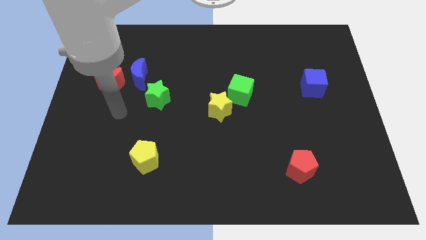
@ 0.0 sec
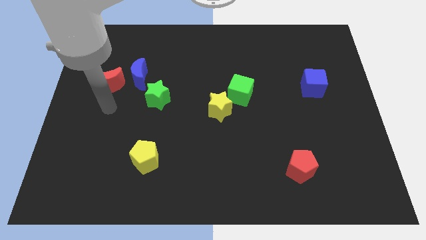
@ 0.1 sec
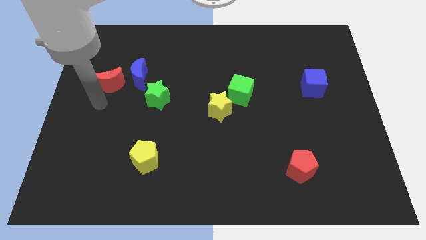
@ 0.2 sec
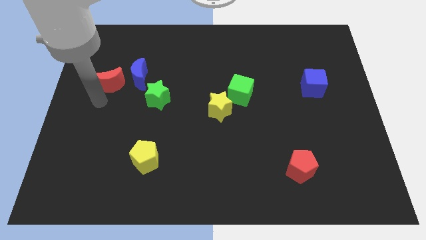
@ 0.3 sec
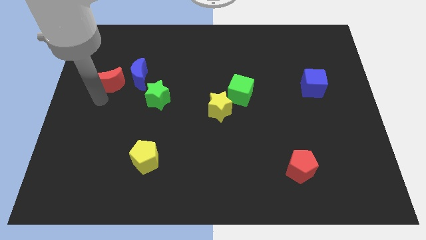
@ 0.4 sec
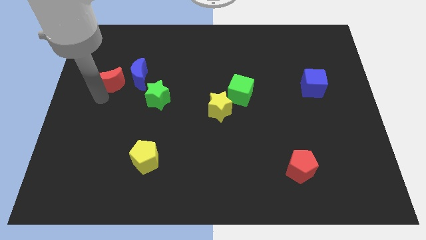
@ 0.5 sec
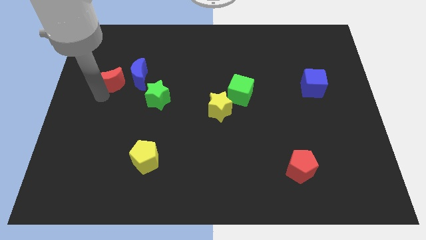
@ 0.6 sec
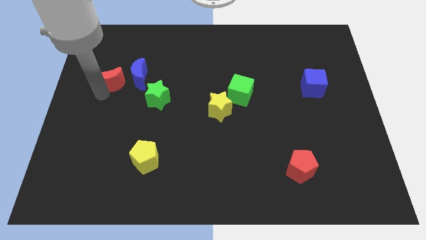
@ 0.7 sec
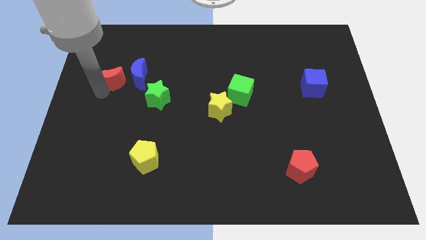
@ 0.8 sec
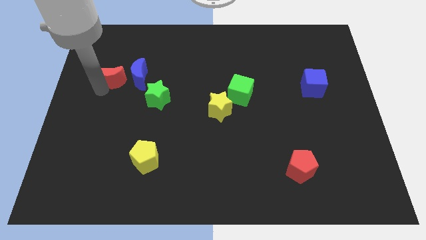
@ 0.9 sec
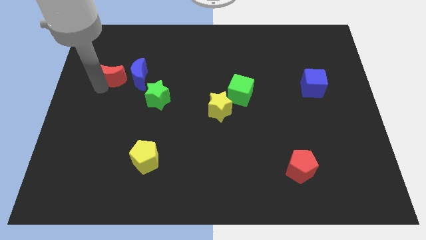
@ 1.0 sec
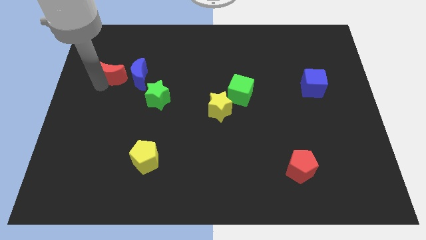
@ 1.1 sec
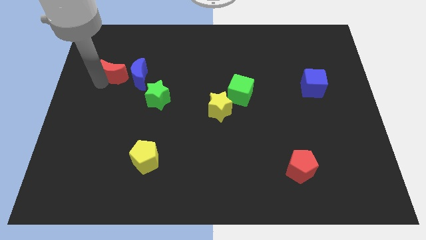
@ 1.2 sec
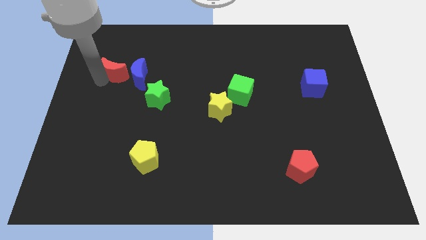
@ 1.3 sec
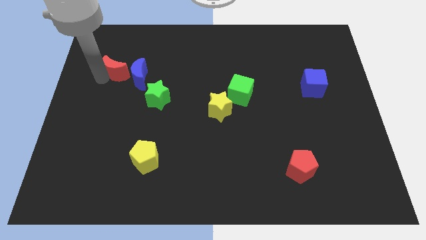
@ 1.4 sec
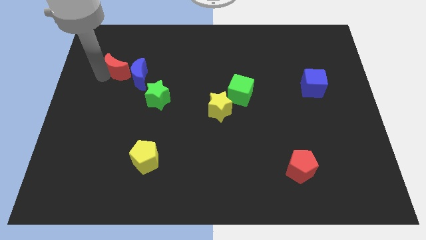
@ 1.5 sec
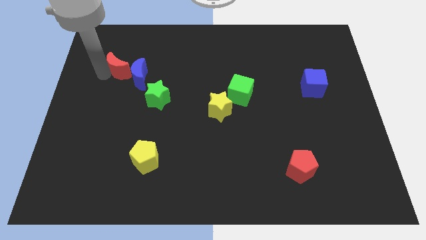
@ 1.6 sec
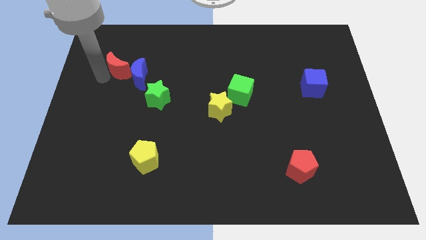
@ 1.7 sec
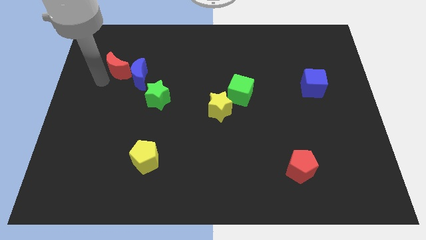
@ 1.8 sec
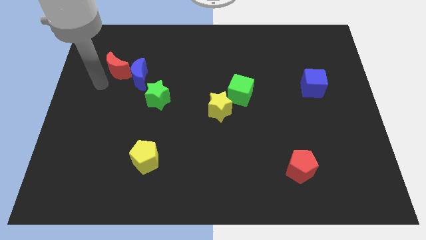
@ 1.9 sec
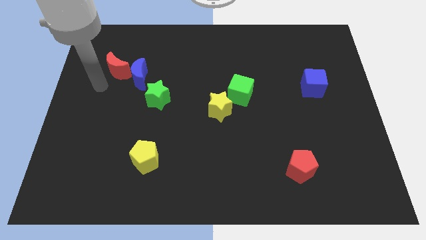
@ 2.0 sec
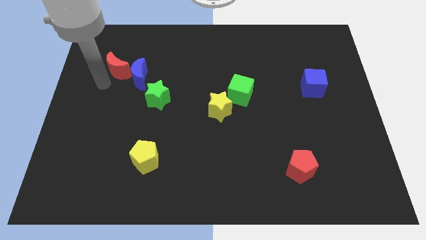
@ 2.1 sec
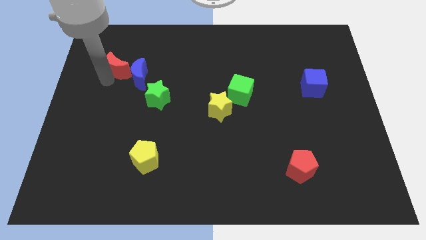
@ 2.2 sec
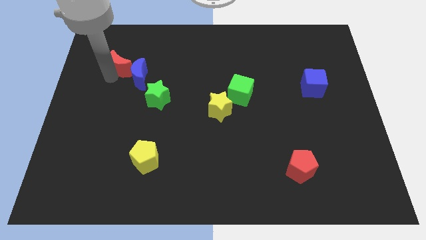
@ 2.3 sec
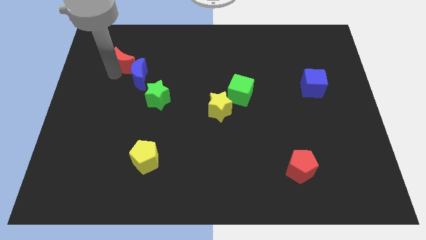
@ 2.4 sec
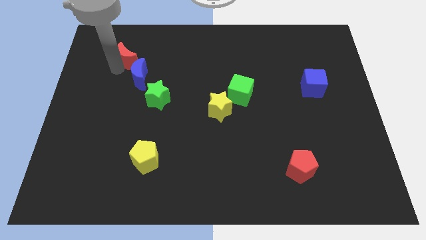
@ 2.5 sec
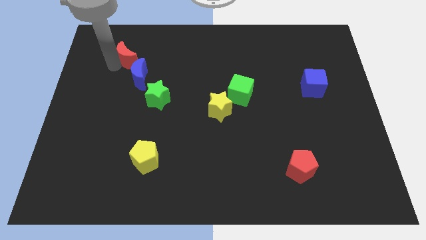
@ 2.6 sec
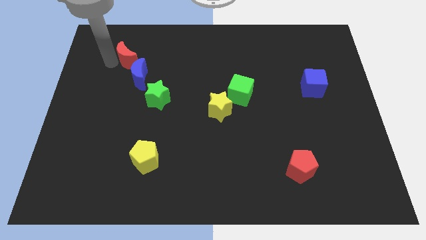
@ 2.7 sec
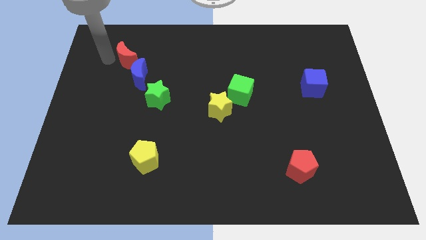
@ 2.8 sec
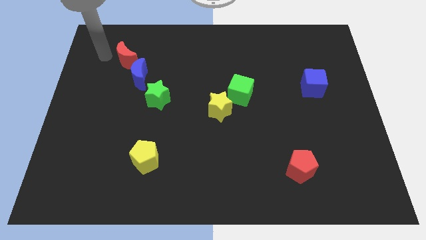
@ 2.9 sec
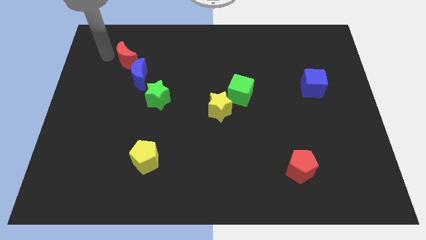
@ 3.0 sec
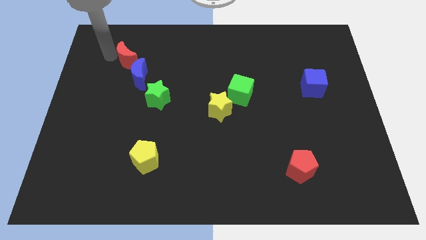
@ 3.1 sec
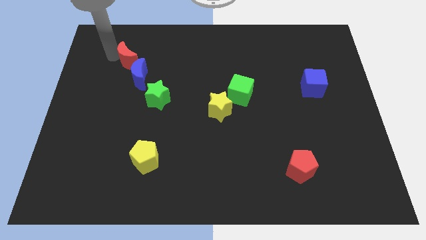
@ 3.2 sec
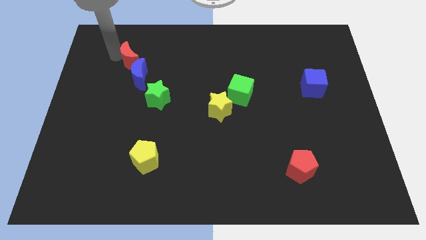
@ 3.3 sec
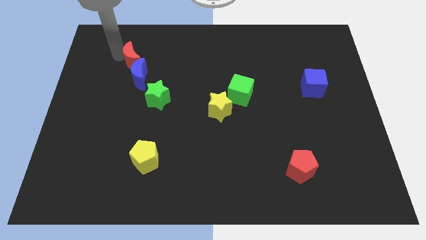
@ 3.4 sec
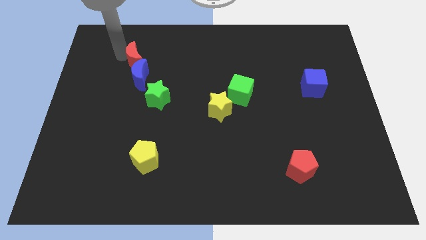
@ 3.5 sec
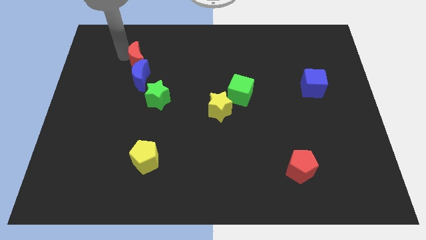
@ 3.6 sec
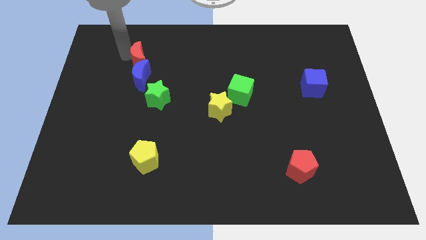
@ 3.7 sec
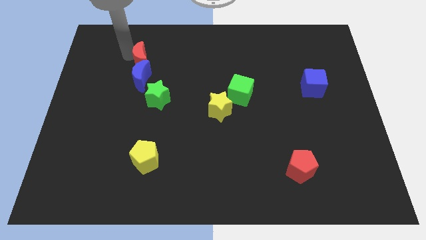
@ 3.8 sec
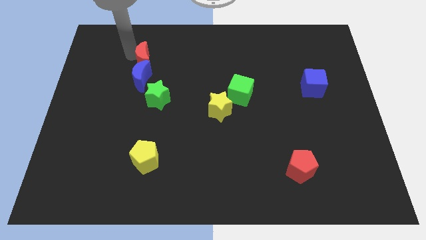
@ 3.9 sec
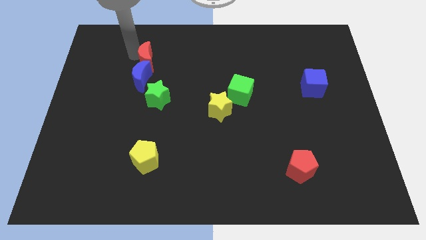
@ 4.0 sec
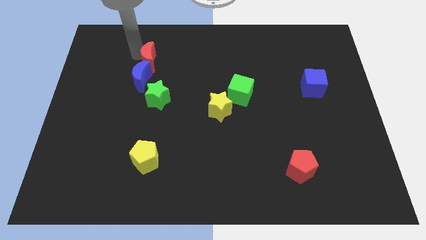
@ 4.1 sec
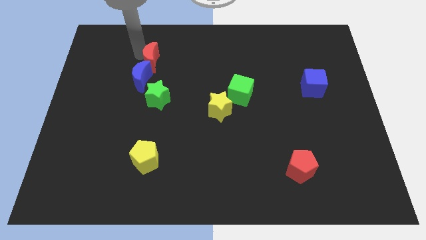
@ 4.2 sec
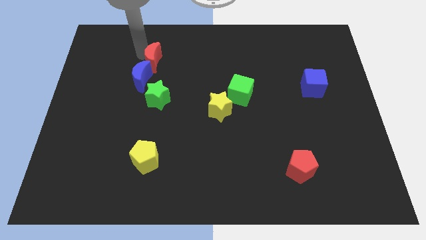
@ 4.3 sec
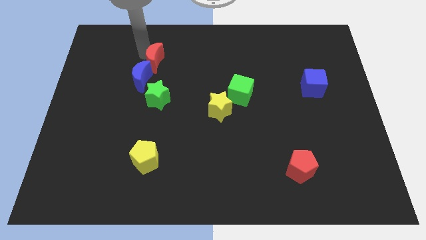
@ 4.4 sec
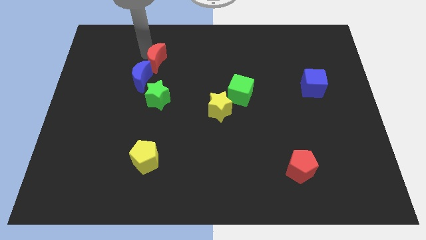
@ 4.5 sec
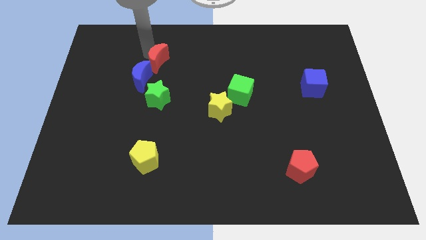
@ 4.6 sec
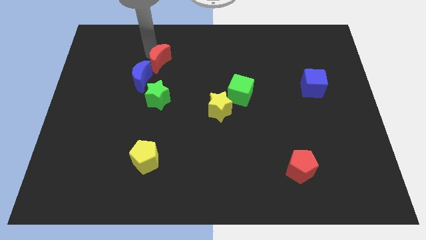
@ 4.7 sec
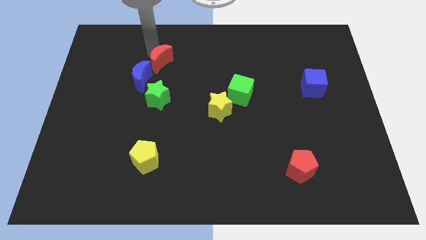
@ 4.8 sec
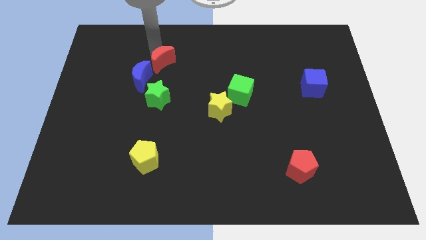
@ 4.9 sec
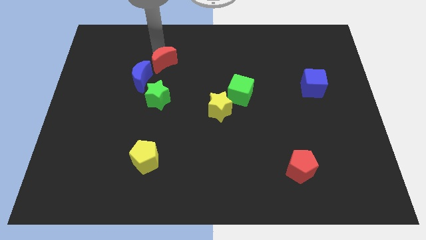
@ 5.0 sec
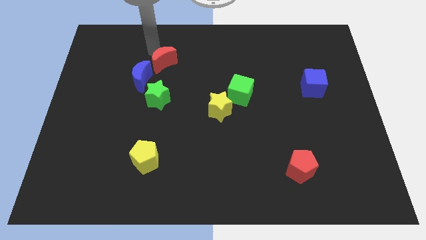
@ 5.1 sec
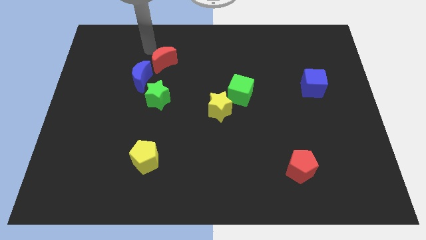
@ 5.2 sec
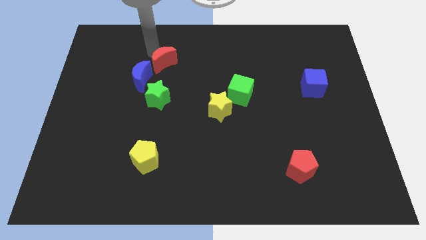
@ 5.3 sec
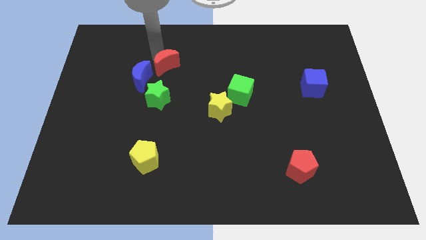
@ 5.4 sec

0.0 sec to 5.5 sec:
move the red moon to the right of the blue moon

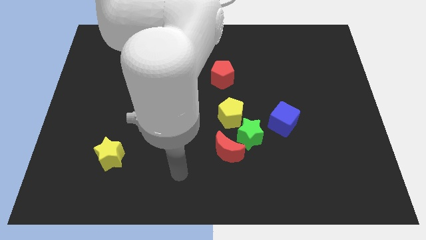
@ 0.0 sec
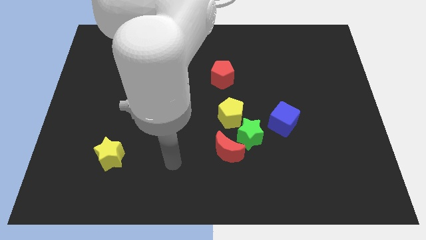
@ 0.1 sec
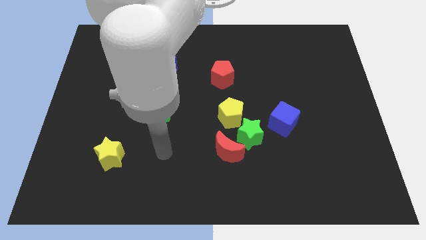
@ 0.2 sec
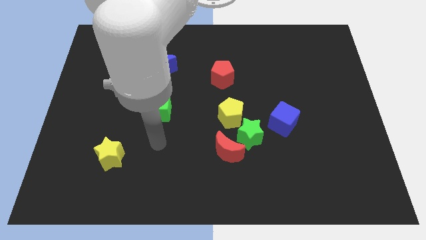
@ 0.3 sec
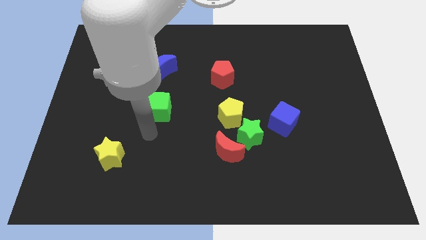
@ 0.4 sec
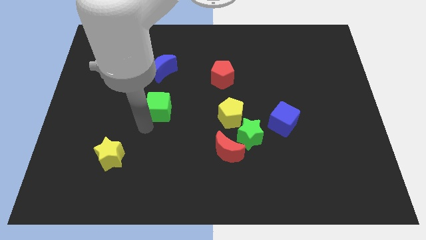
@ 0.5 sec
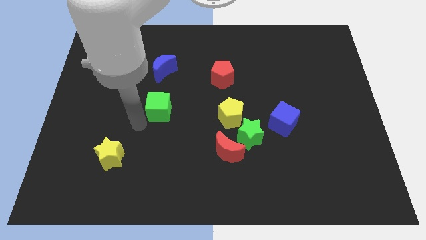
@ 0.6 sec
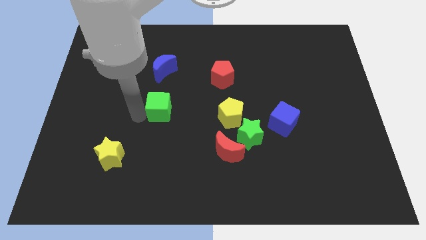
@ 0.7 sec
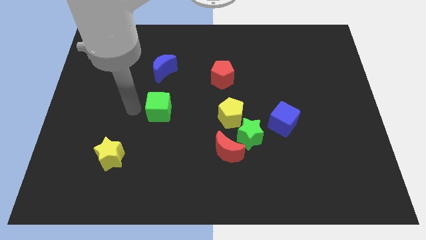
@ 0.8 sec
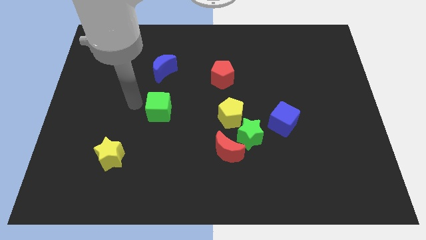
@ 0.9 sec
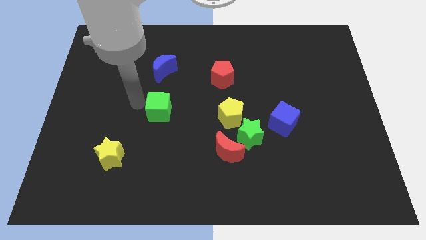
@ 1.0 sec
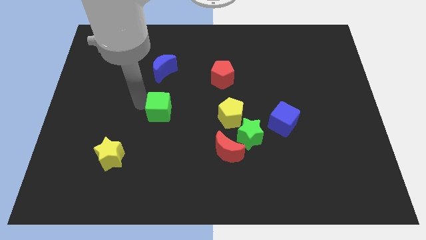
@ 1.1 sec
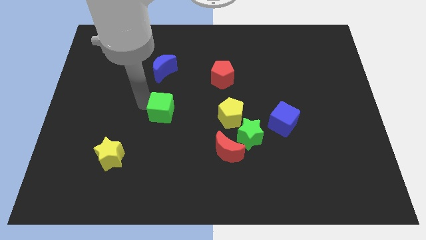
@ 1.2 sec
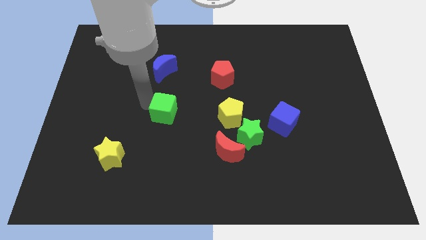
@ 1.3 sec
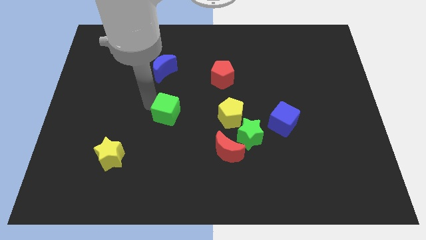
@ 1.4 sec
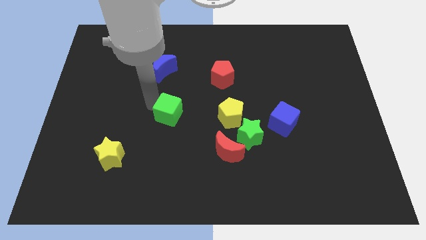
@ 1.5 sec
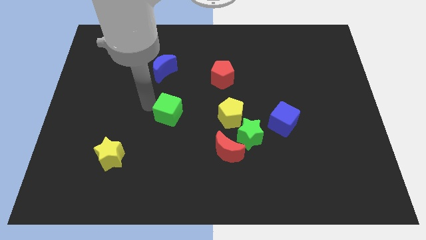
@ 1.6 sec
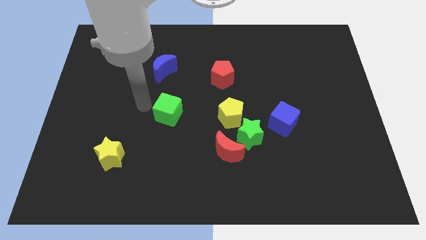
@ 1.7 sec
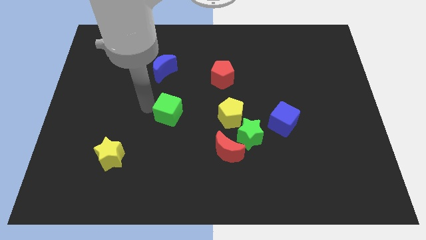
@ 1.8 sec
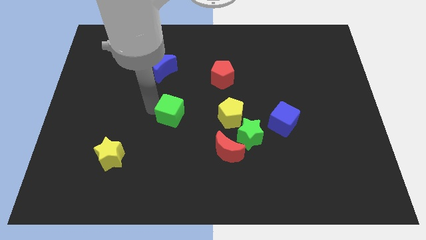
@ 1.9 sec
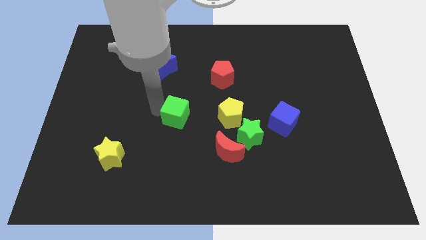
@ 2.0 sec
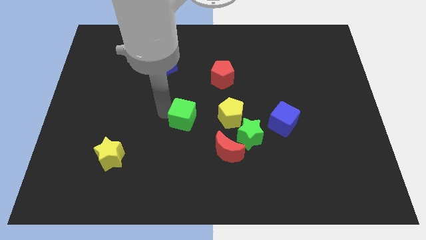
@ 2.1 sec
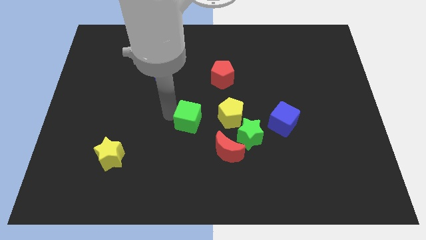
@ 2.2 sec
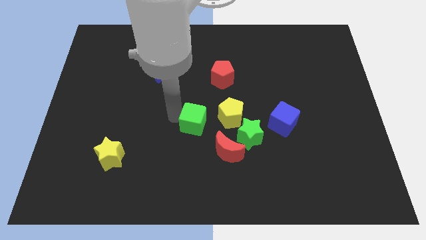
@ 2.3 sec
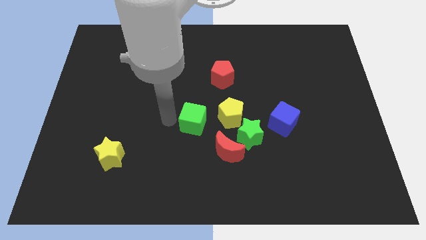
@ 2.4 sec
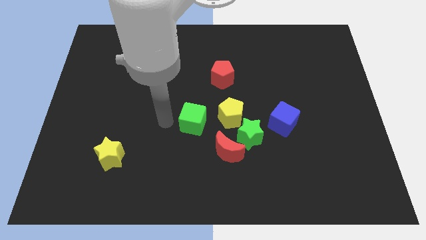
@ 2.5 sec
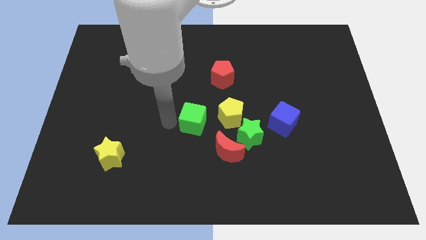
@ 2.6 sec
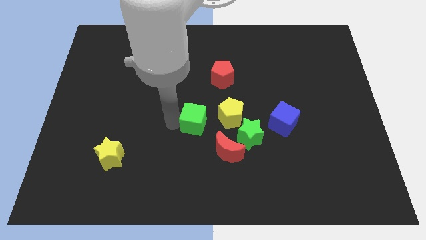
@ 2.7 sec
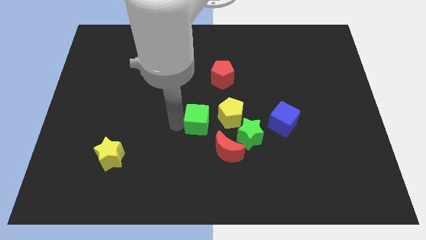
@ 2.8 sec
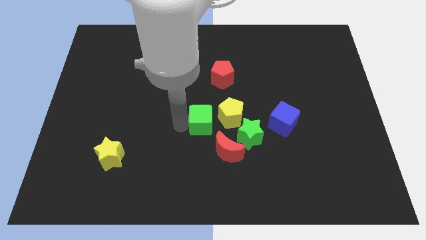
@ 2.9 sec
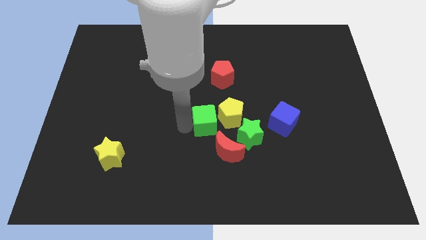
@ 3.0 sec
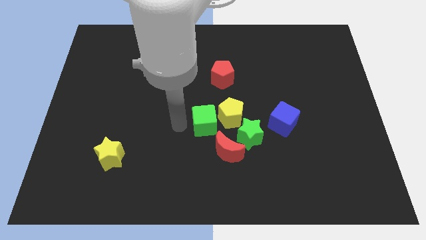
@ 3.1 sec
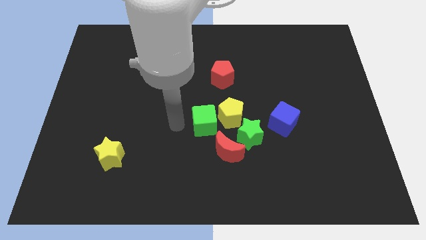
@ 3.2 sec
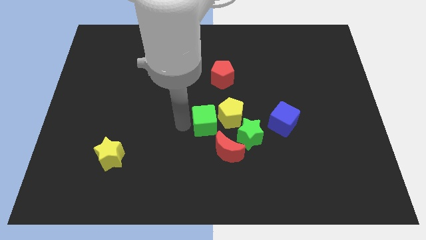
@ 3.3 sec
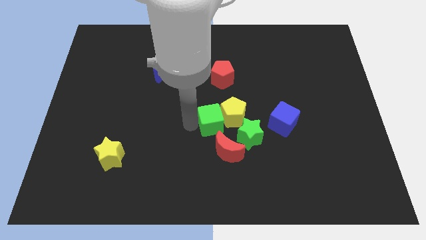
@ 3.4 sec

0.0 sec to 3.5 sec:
put the green cube just left of the blue cube
